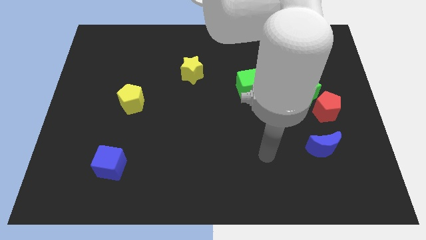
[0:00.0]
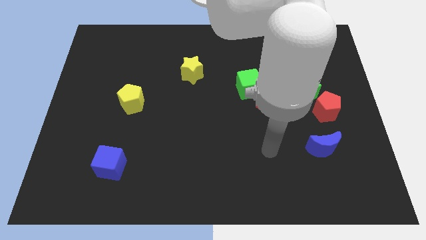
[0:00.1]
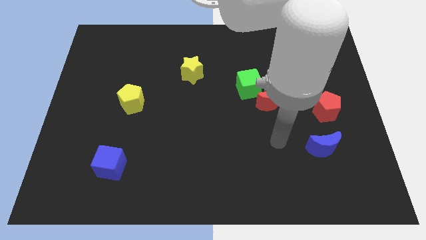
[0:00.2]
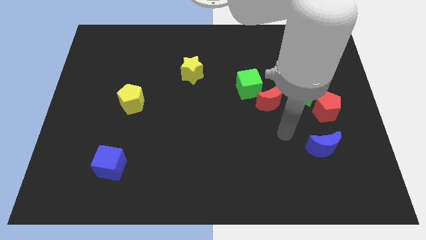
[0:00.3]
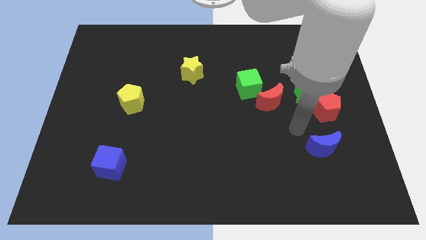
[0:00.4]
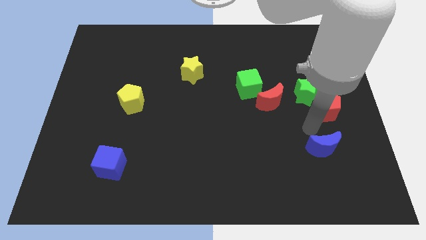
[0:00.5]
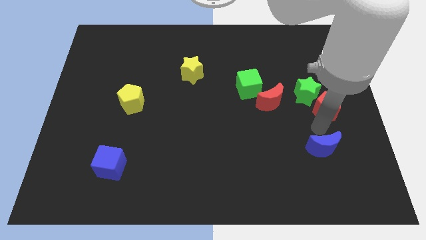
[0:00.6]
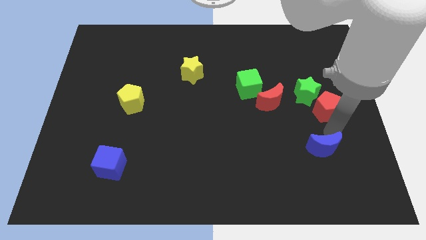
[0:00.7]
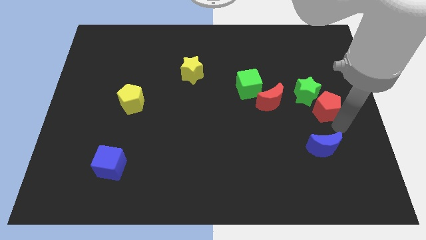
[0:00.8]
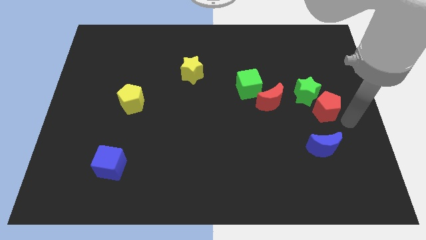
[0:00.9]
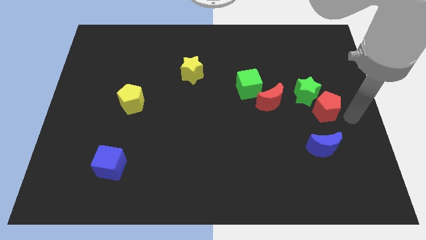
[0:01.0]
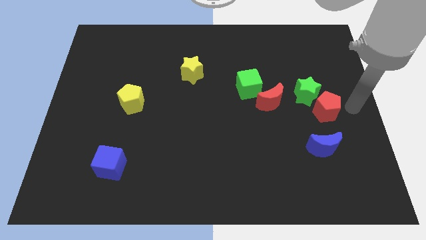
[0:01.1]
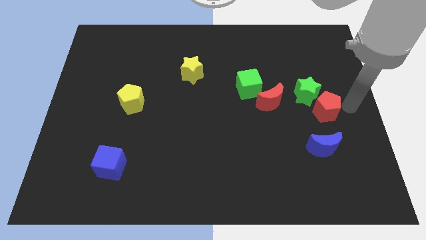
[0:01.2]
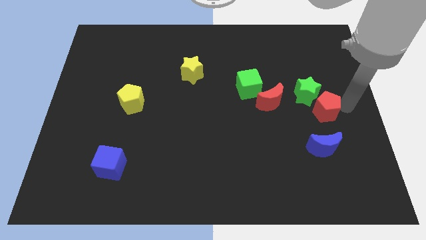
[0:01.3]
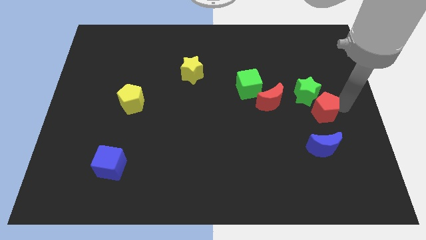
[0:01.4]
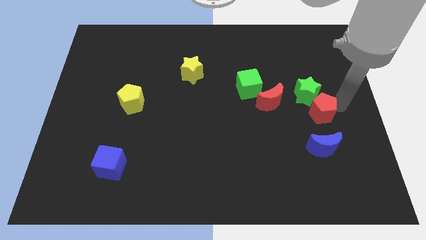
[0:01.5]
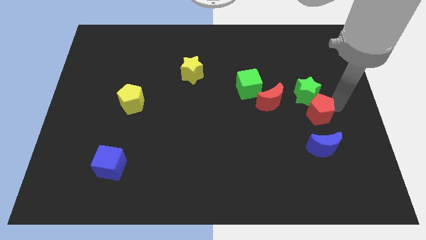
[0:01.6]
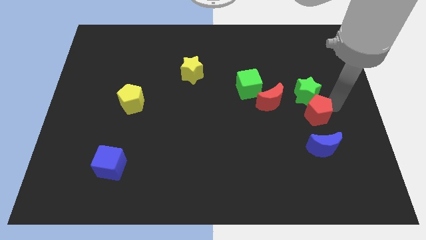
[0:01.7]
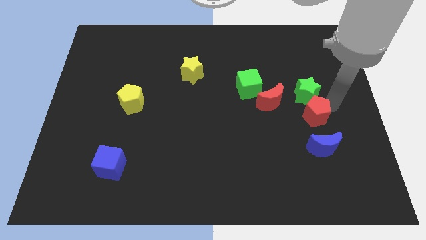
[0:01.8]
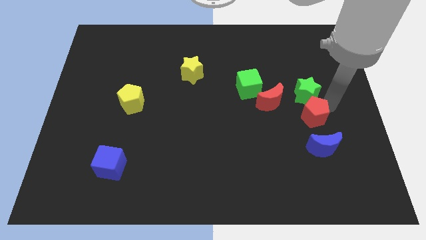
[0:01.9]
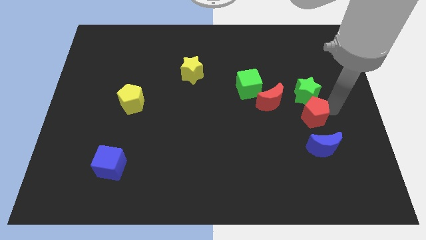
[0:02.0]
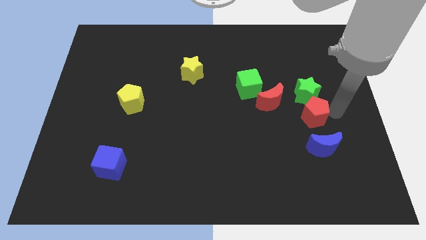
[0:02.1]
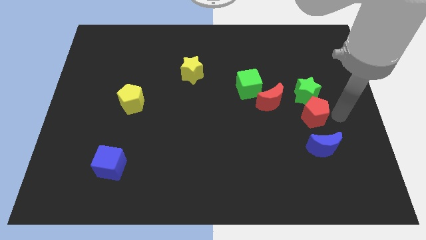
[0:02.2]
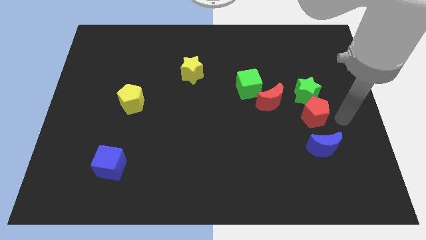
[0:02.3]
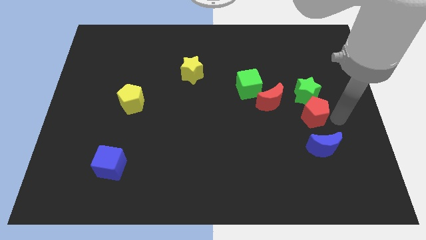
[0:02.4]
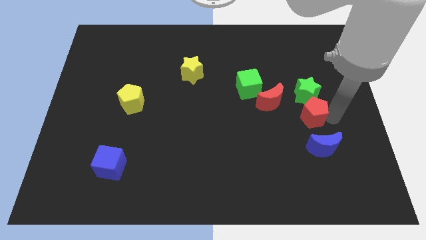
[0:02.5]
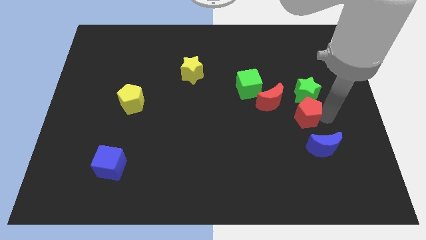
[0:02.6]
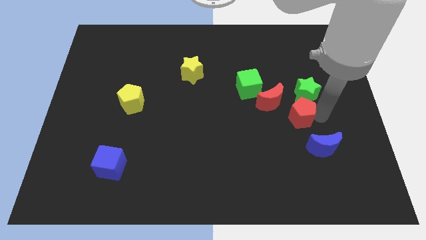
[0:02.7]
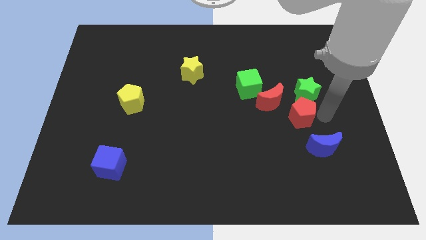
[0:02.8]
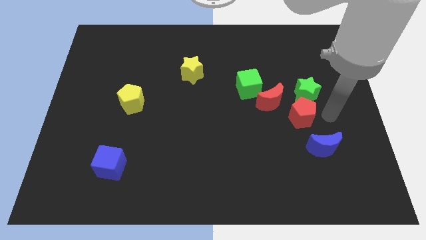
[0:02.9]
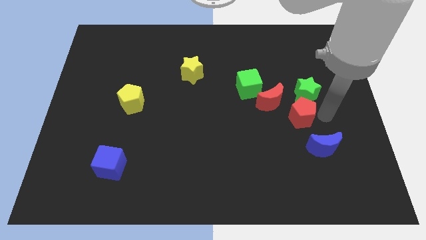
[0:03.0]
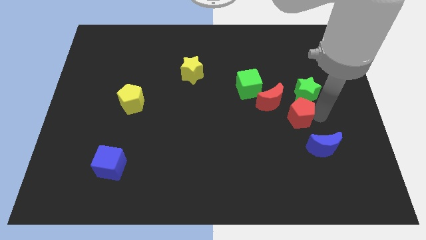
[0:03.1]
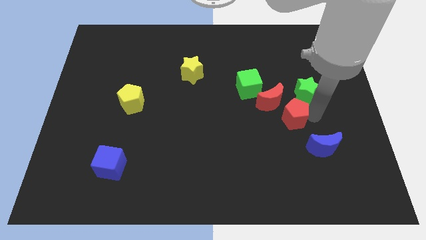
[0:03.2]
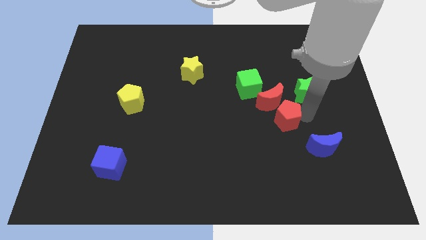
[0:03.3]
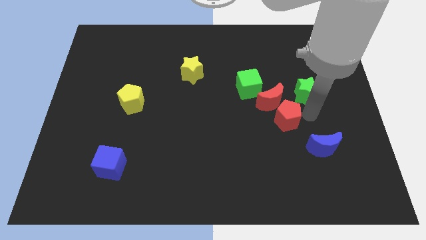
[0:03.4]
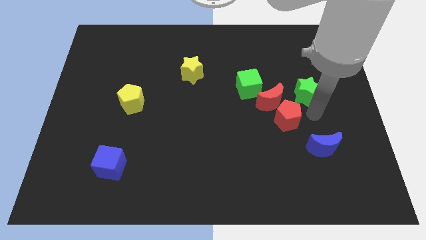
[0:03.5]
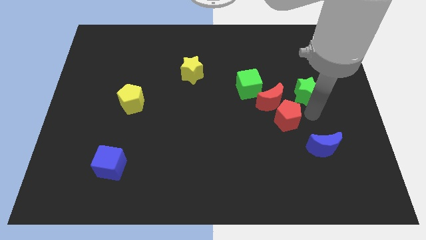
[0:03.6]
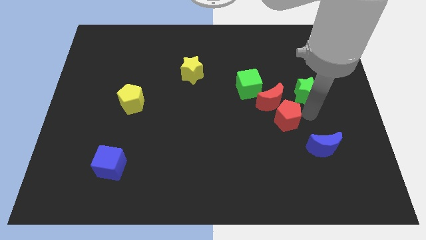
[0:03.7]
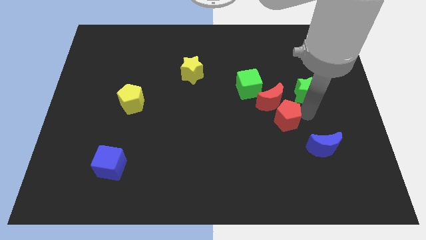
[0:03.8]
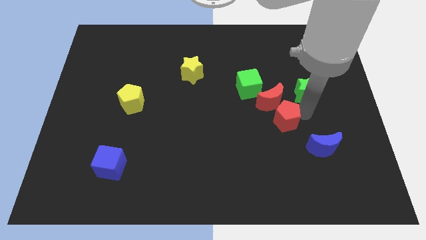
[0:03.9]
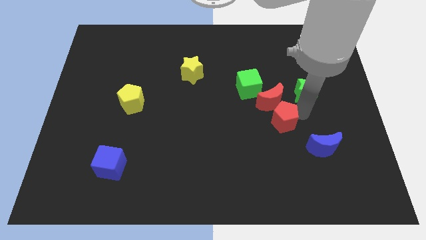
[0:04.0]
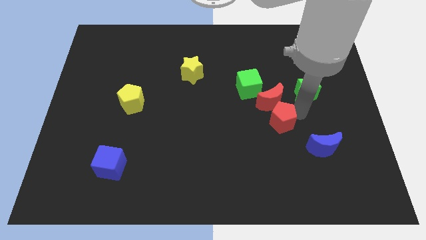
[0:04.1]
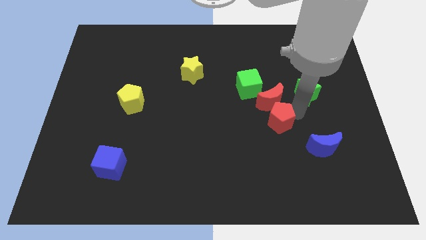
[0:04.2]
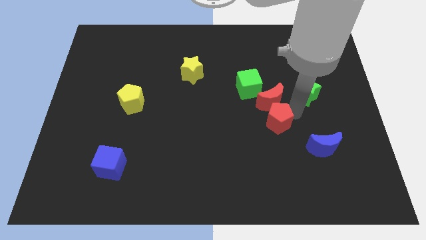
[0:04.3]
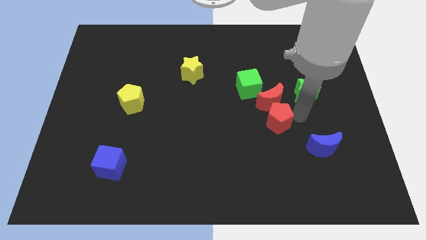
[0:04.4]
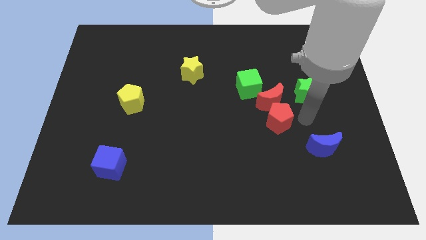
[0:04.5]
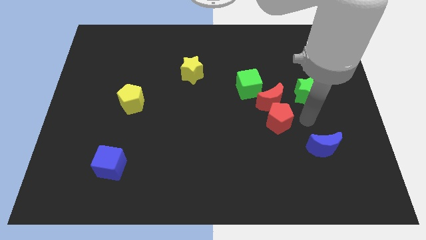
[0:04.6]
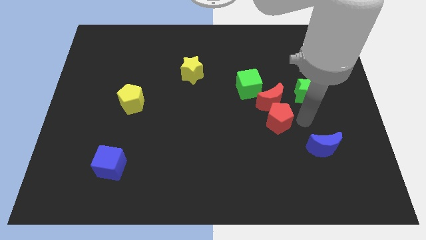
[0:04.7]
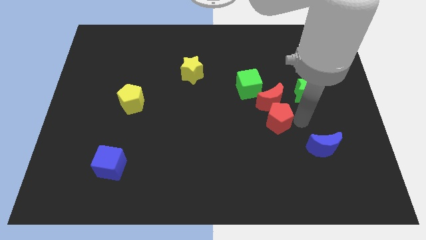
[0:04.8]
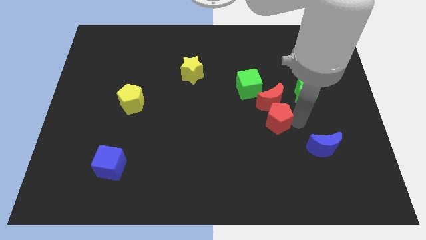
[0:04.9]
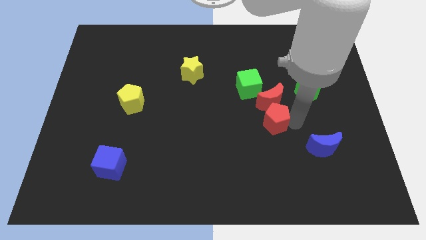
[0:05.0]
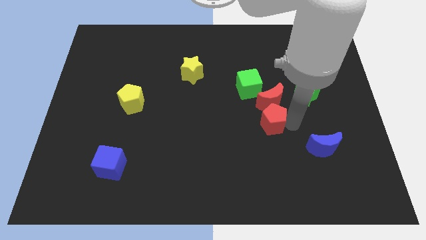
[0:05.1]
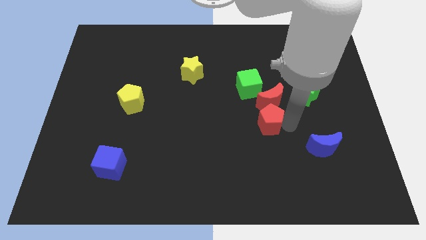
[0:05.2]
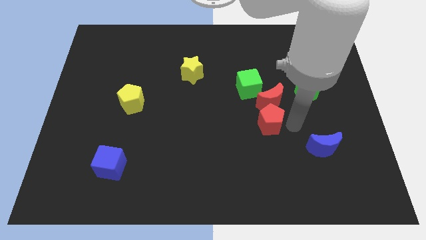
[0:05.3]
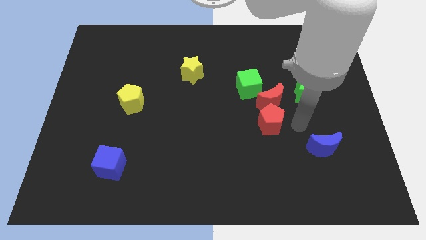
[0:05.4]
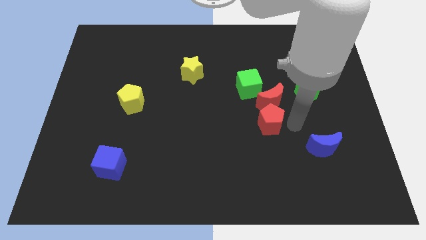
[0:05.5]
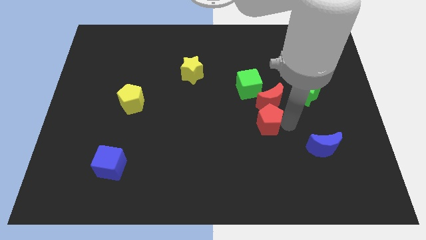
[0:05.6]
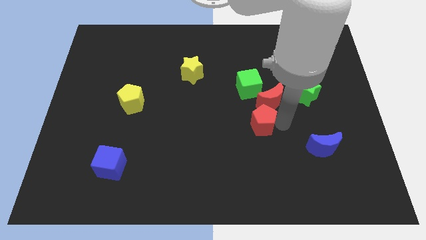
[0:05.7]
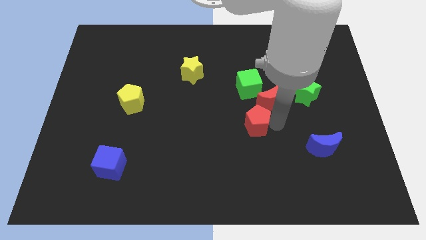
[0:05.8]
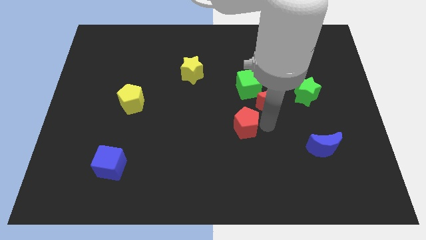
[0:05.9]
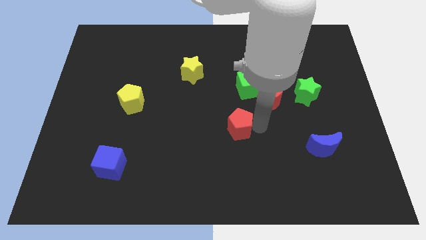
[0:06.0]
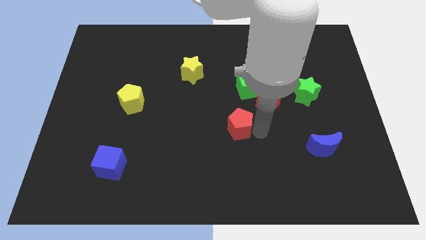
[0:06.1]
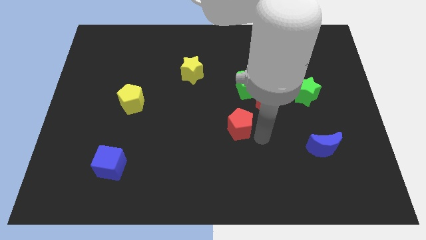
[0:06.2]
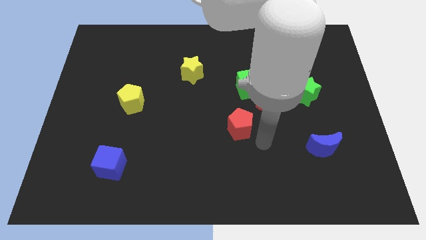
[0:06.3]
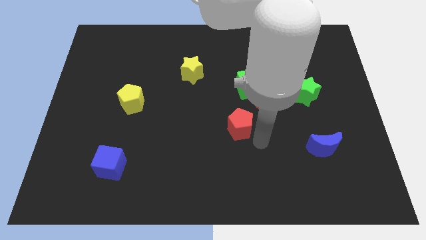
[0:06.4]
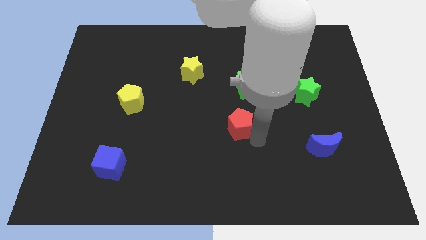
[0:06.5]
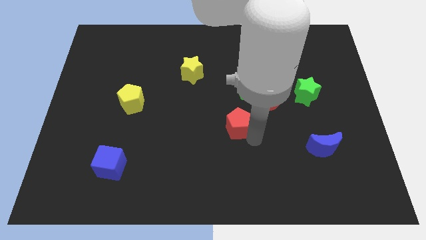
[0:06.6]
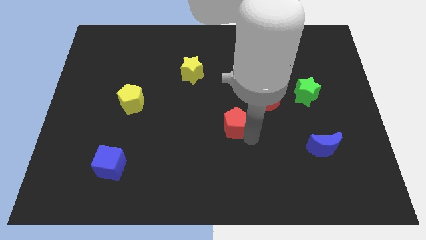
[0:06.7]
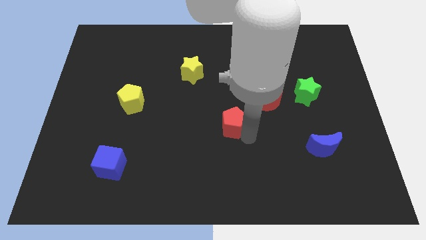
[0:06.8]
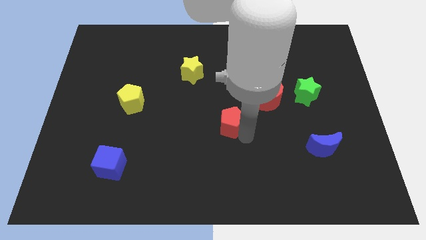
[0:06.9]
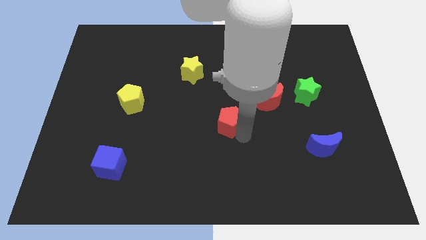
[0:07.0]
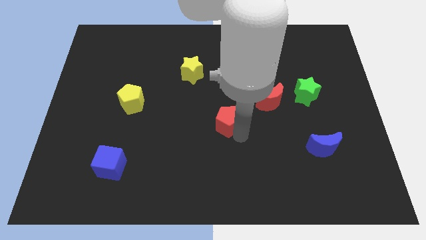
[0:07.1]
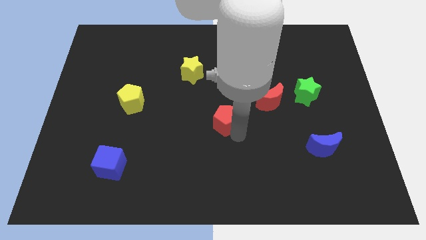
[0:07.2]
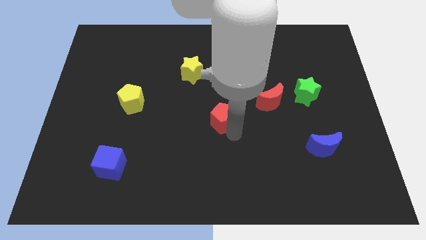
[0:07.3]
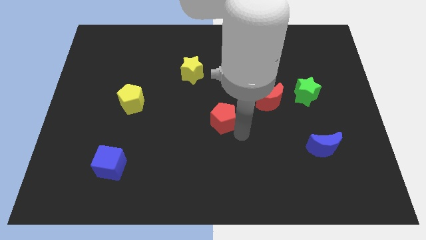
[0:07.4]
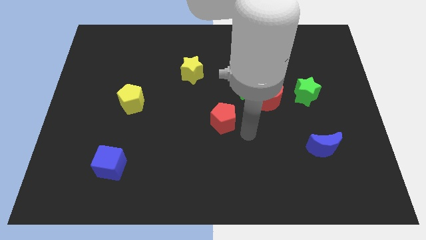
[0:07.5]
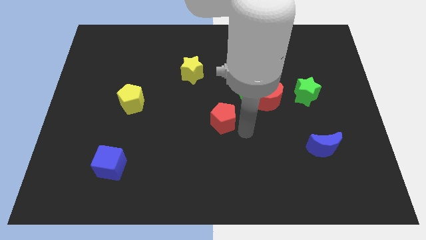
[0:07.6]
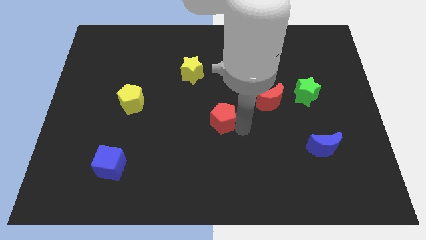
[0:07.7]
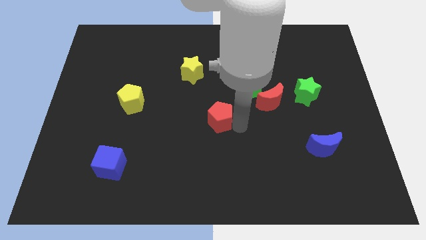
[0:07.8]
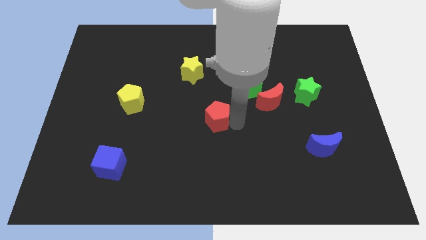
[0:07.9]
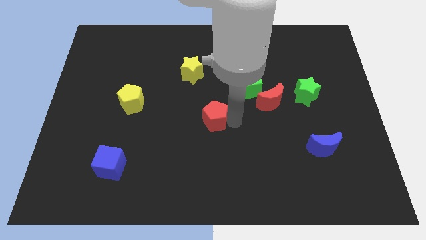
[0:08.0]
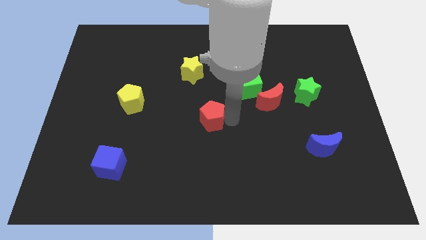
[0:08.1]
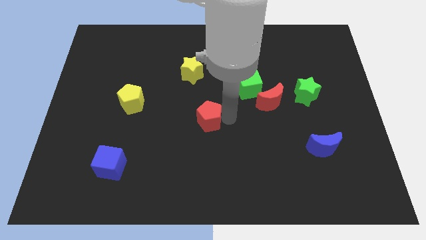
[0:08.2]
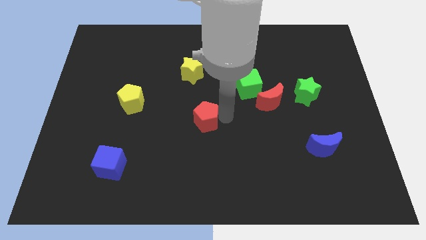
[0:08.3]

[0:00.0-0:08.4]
push the red pentagon to the bottom of the yellow star
